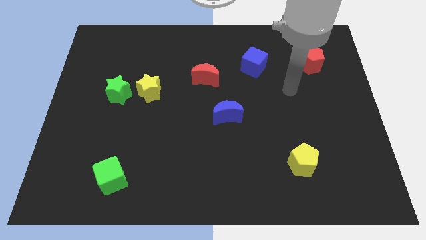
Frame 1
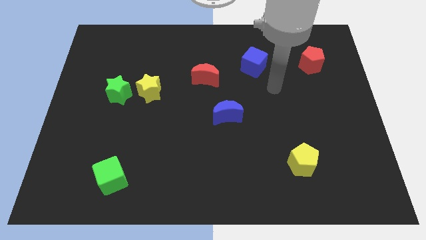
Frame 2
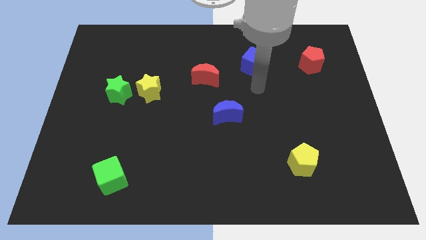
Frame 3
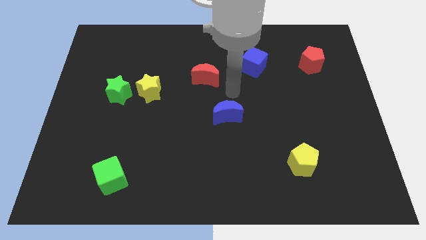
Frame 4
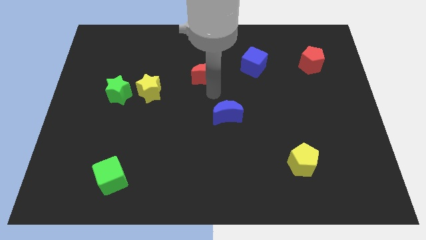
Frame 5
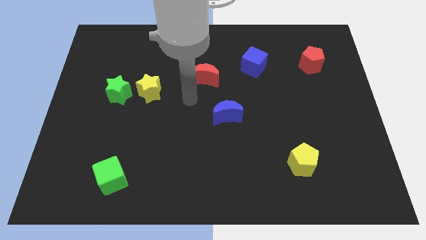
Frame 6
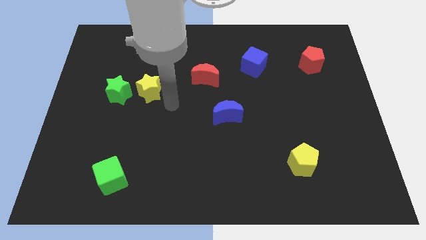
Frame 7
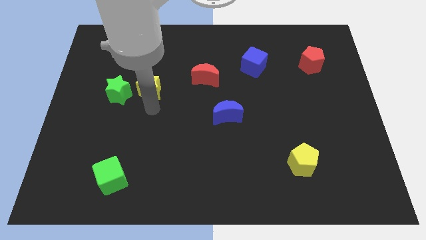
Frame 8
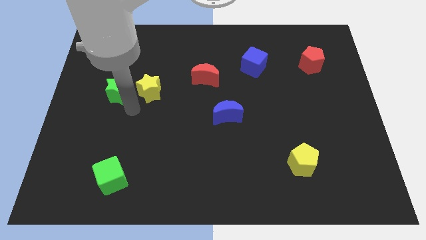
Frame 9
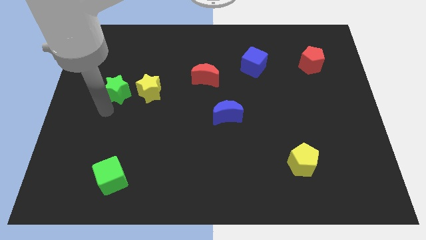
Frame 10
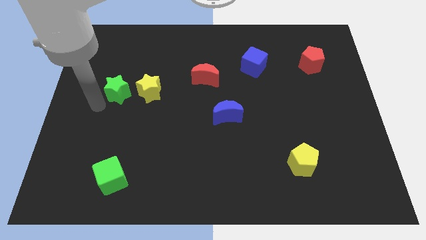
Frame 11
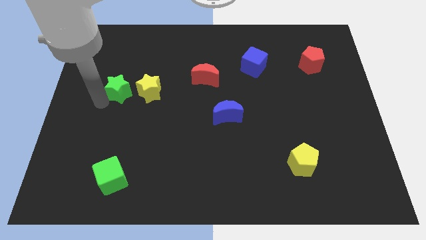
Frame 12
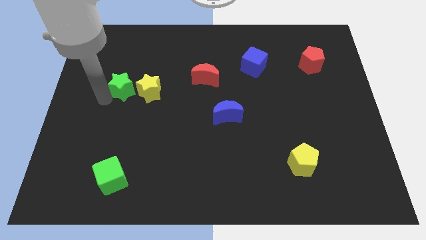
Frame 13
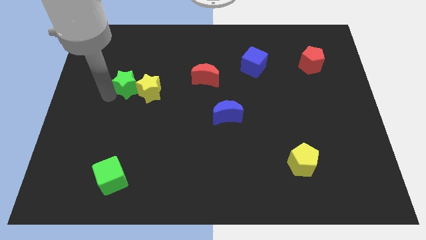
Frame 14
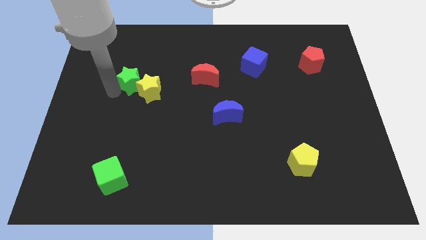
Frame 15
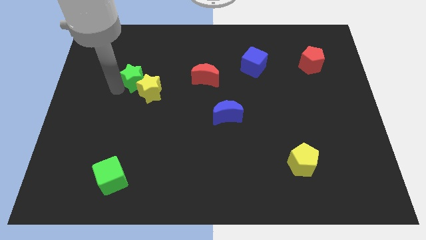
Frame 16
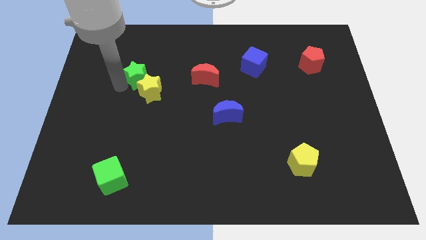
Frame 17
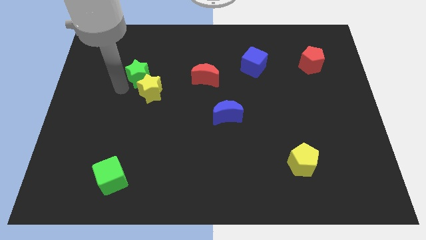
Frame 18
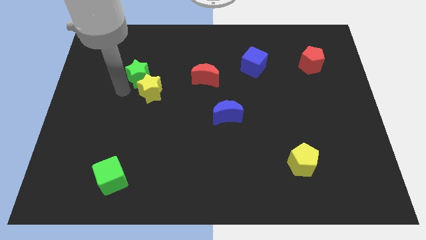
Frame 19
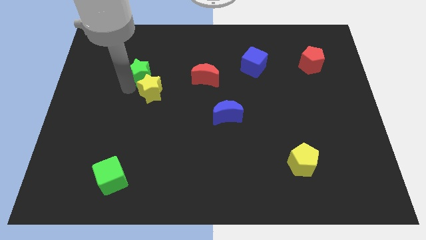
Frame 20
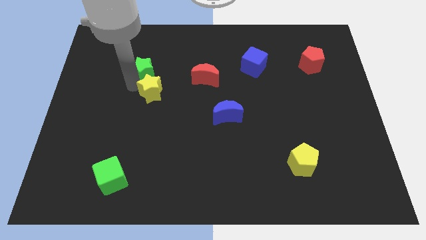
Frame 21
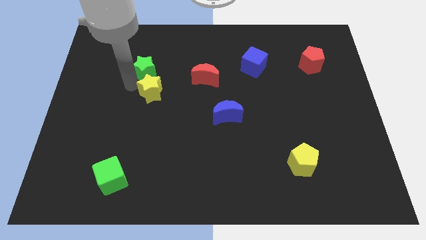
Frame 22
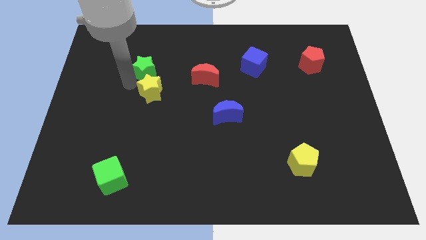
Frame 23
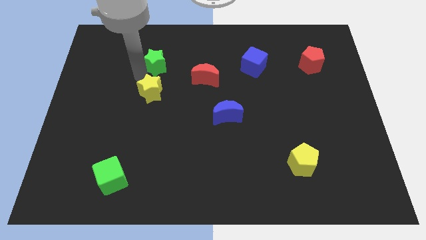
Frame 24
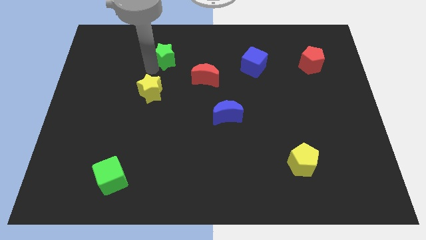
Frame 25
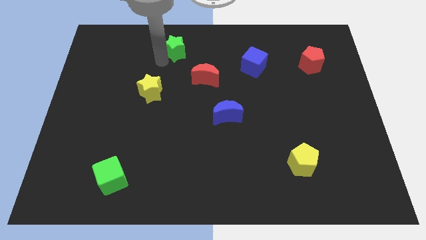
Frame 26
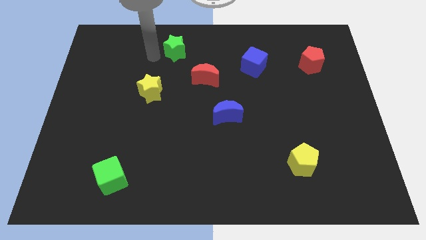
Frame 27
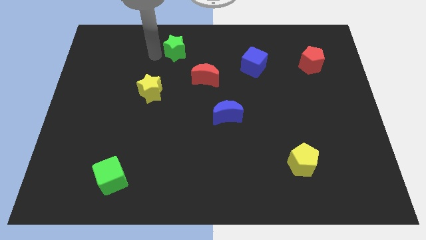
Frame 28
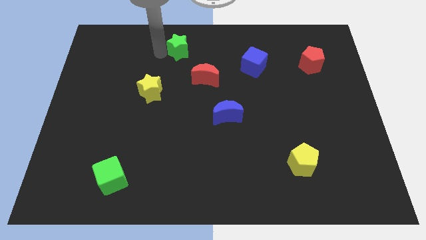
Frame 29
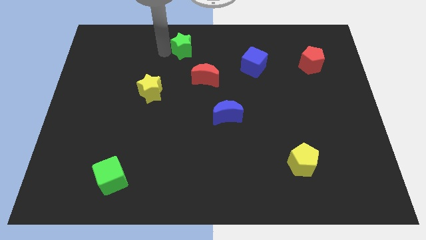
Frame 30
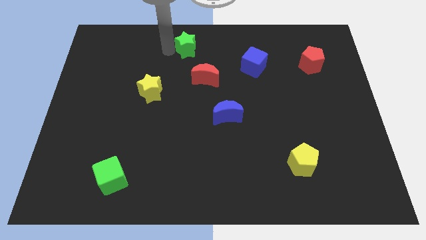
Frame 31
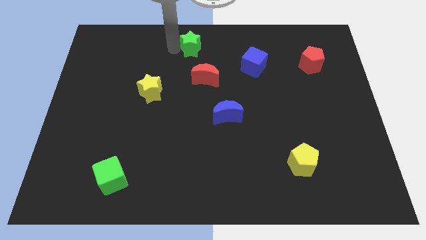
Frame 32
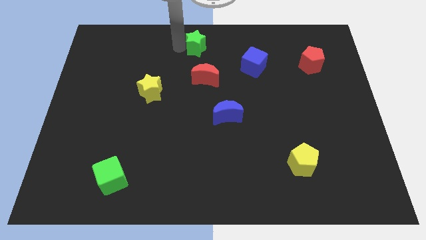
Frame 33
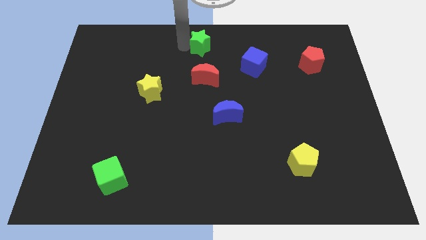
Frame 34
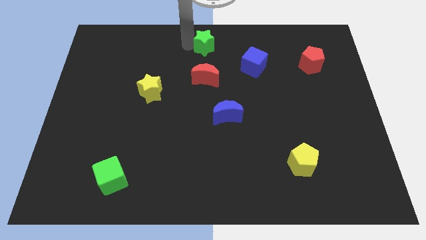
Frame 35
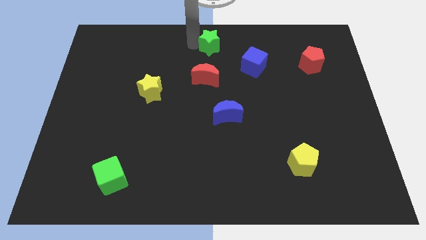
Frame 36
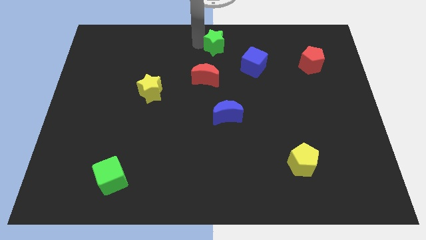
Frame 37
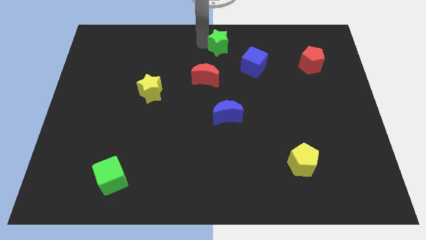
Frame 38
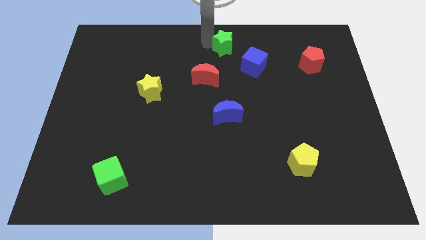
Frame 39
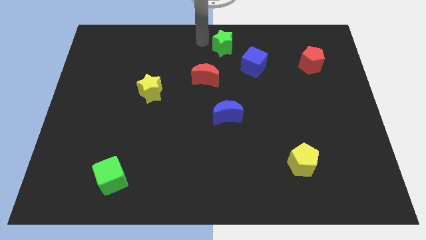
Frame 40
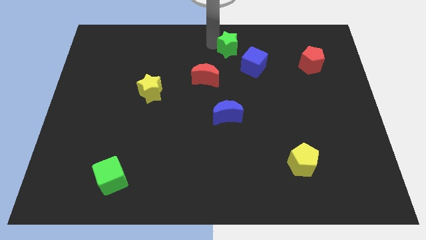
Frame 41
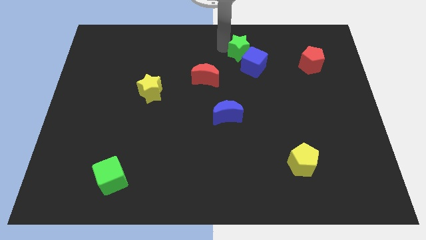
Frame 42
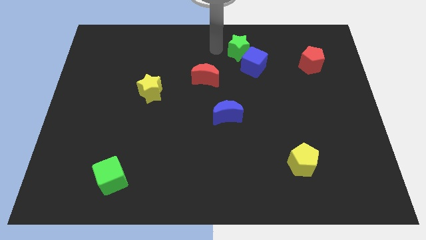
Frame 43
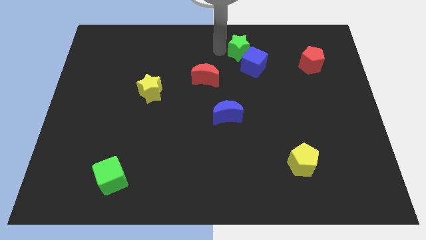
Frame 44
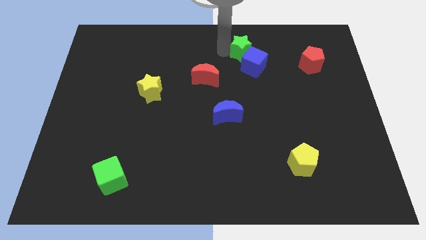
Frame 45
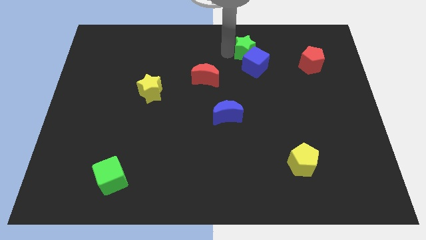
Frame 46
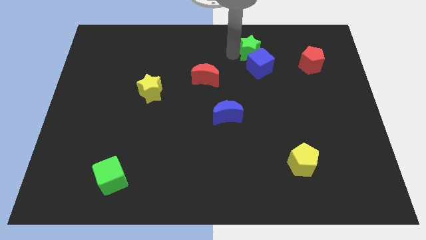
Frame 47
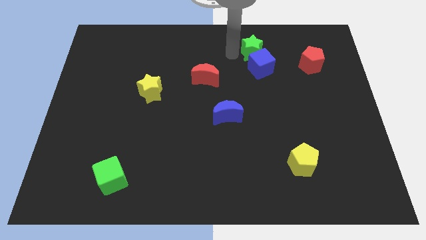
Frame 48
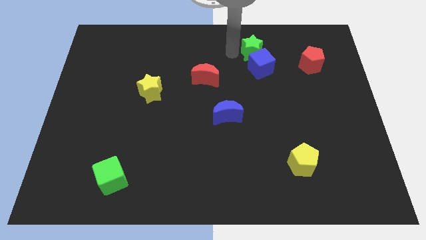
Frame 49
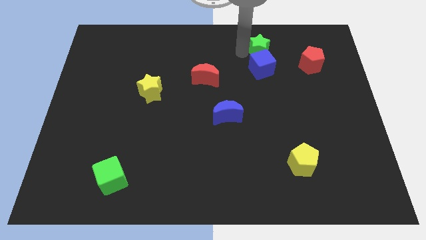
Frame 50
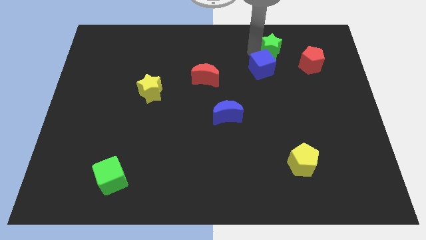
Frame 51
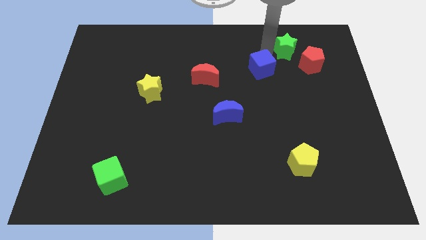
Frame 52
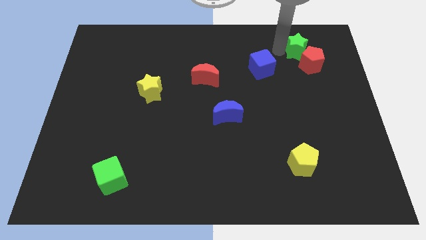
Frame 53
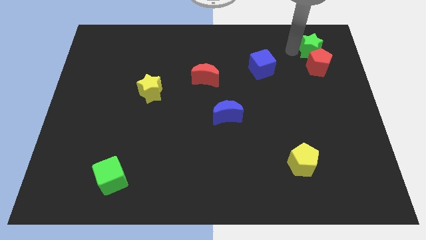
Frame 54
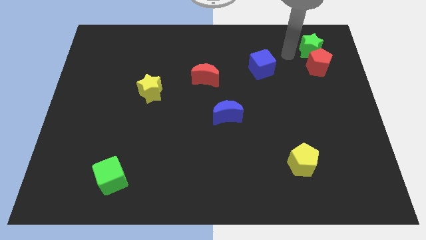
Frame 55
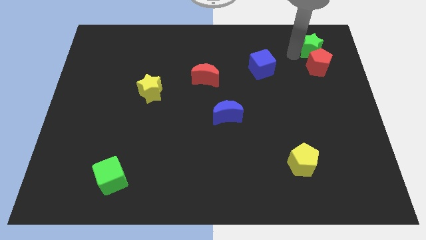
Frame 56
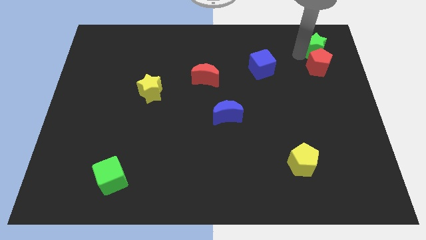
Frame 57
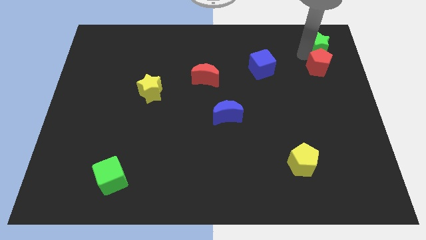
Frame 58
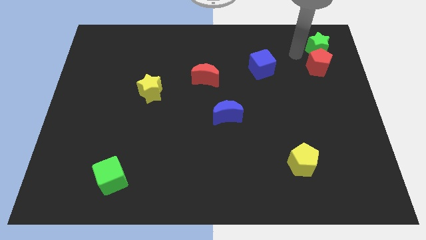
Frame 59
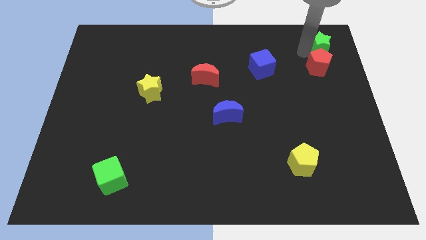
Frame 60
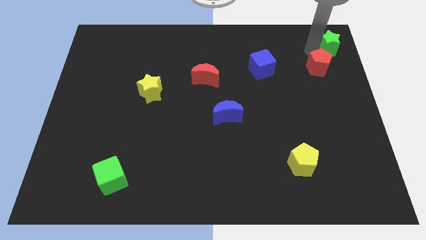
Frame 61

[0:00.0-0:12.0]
push the green star to the upper right corner

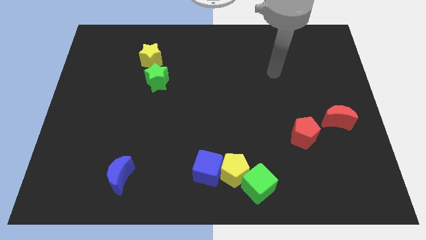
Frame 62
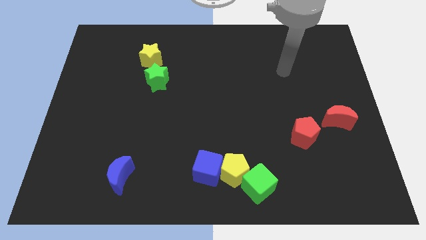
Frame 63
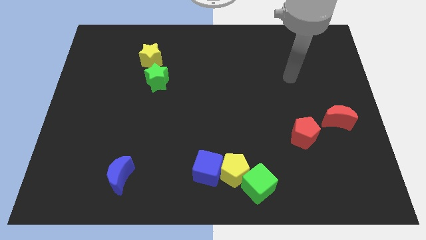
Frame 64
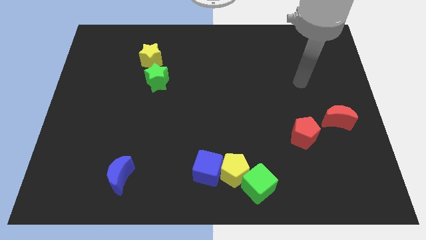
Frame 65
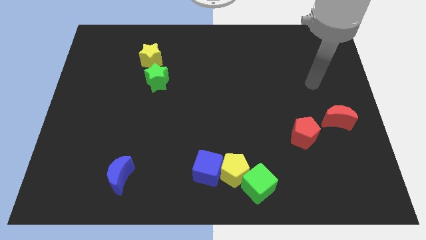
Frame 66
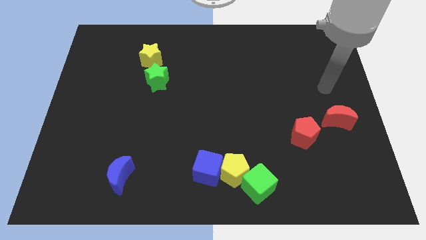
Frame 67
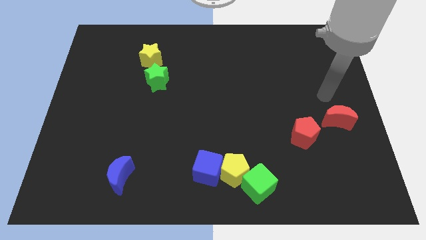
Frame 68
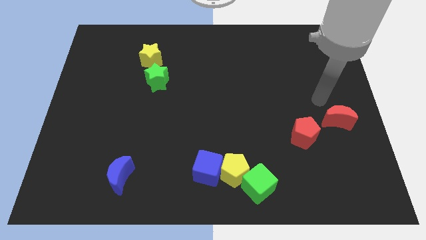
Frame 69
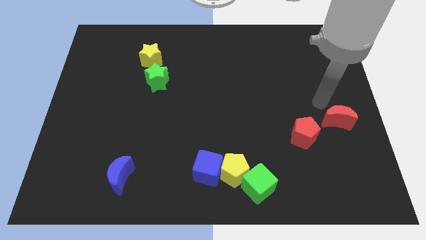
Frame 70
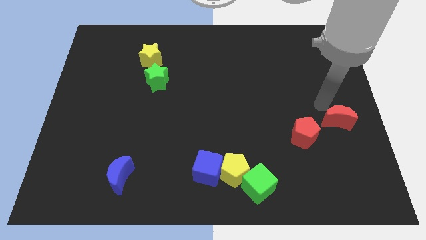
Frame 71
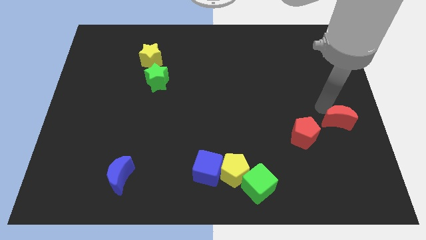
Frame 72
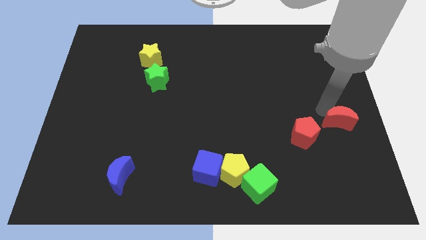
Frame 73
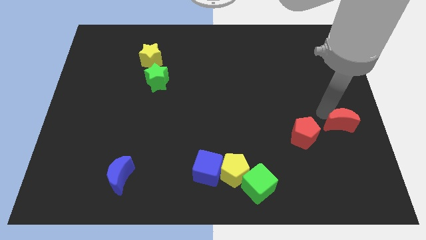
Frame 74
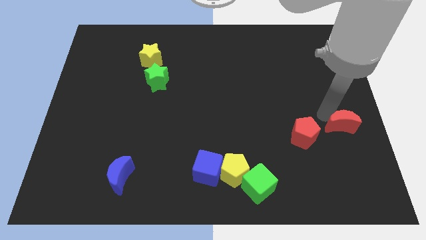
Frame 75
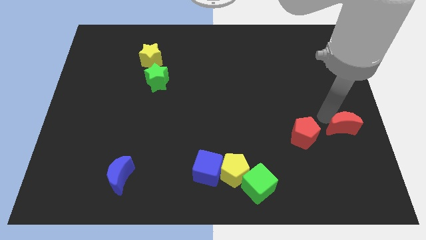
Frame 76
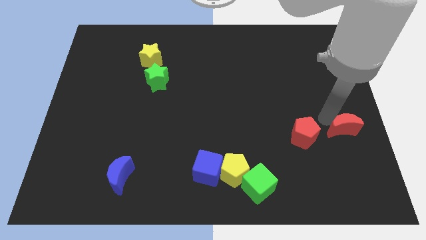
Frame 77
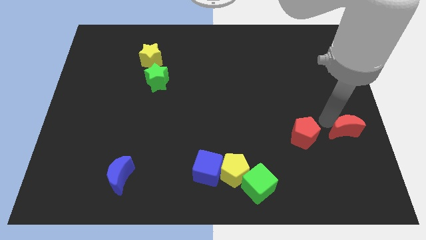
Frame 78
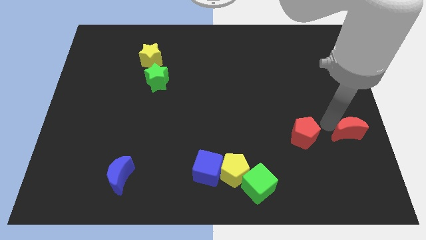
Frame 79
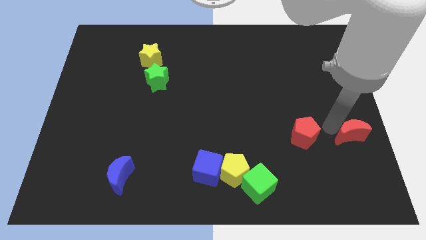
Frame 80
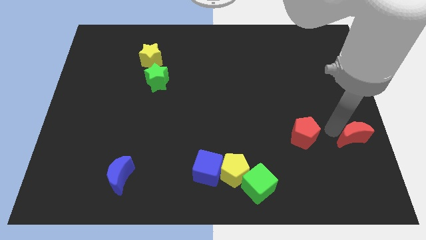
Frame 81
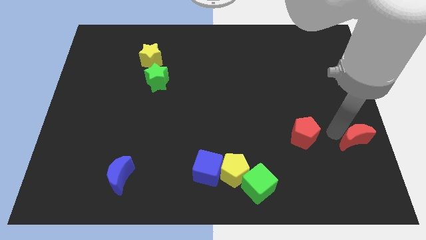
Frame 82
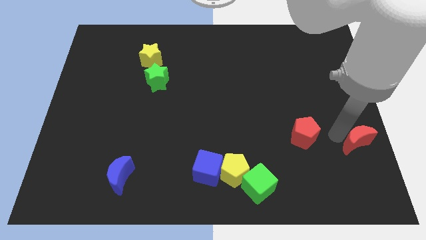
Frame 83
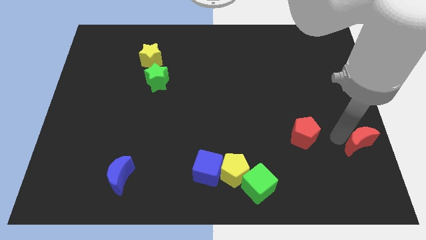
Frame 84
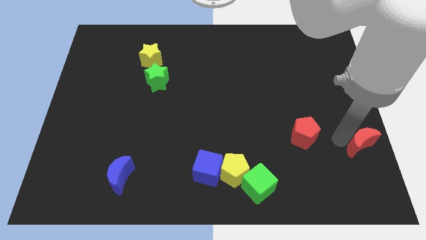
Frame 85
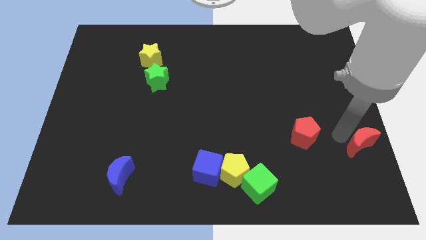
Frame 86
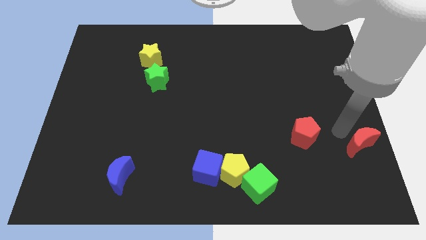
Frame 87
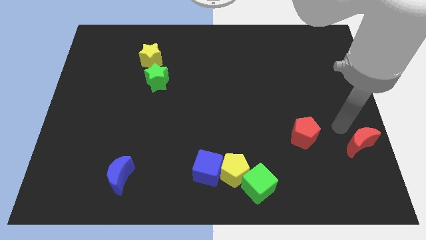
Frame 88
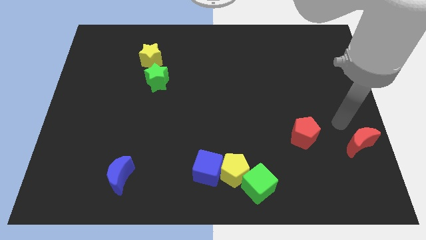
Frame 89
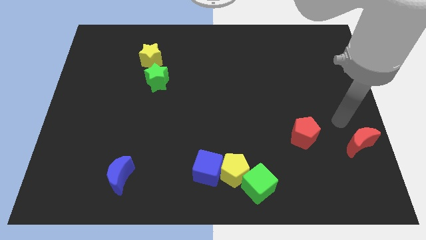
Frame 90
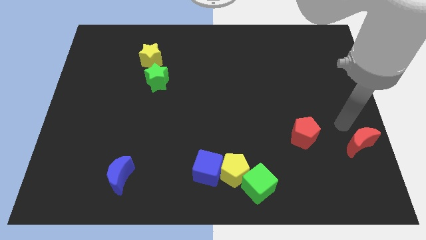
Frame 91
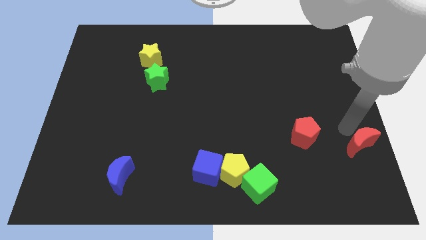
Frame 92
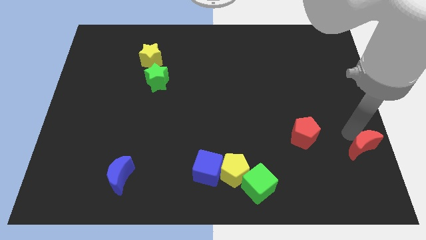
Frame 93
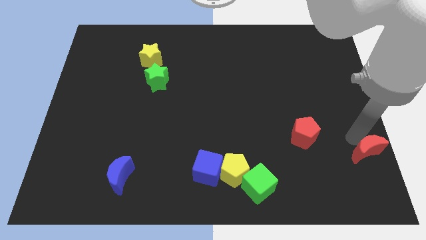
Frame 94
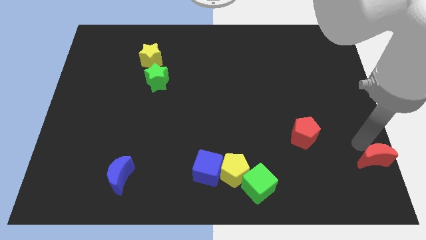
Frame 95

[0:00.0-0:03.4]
put the red moon to the bottom right corner
